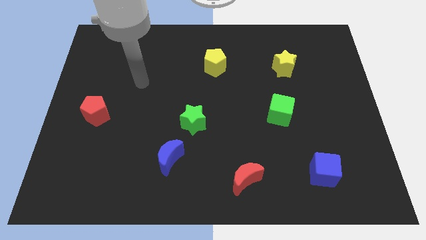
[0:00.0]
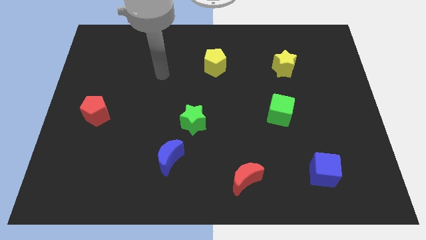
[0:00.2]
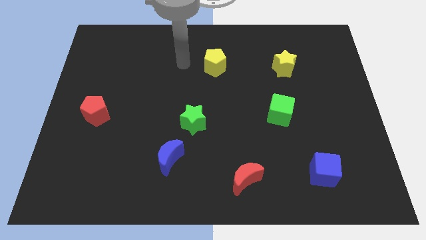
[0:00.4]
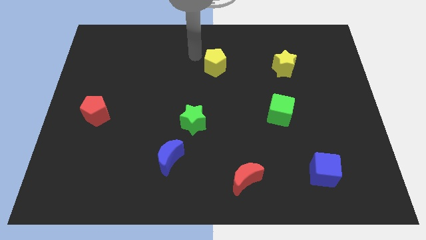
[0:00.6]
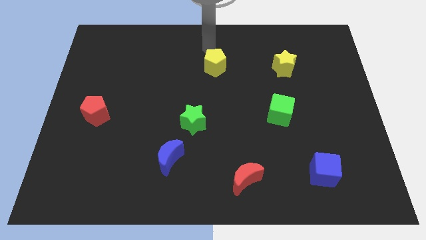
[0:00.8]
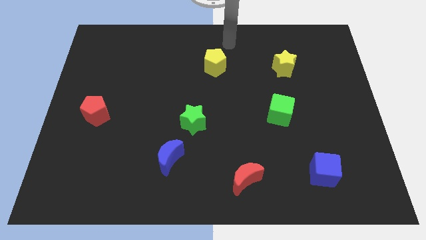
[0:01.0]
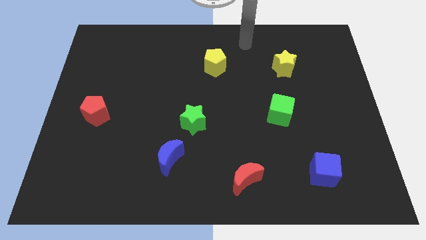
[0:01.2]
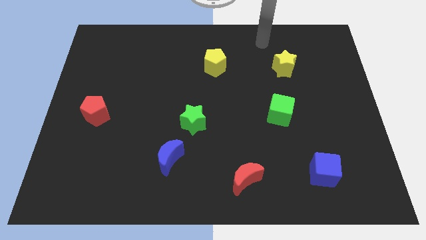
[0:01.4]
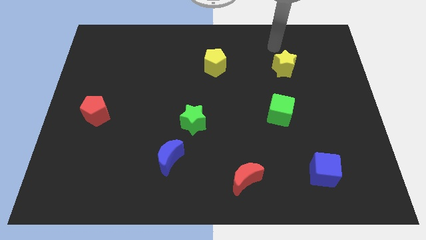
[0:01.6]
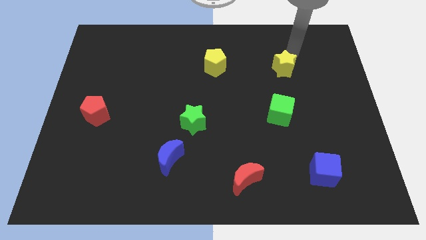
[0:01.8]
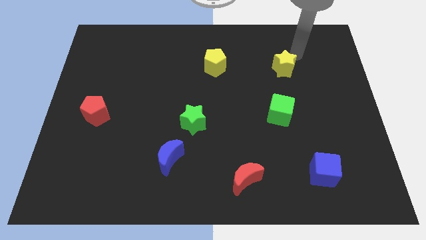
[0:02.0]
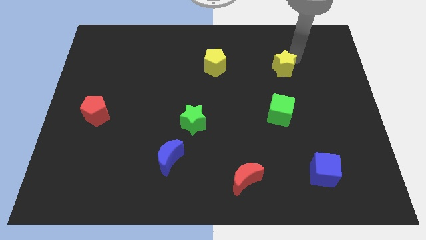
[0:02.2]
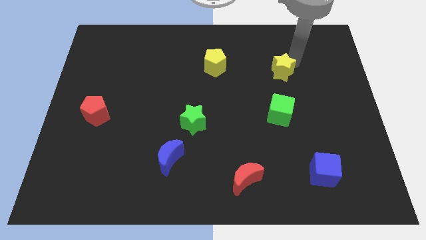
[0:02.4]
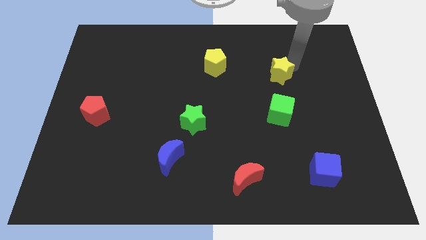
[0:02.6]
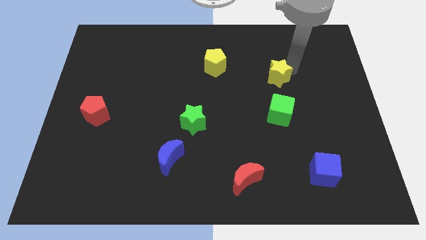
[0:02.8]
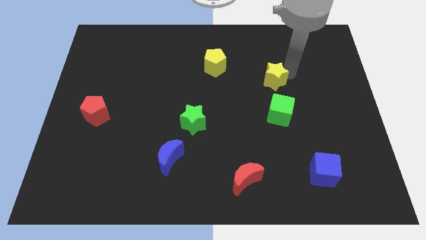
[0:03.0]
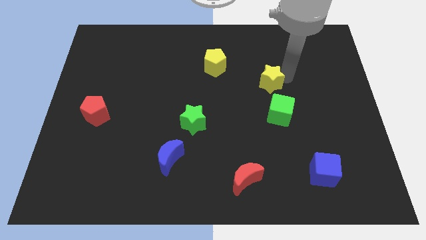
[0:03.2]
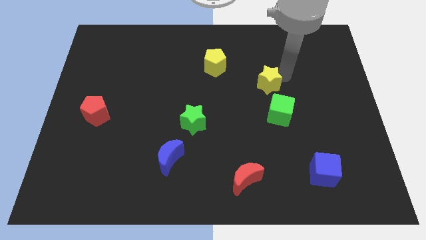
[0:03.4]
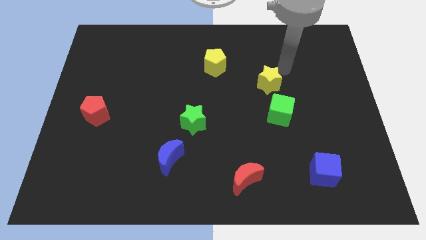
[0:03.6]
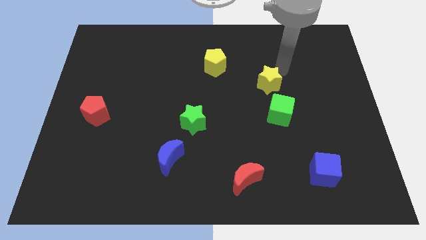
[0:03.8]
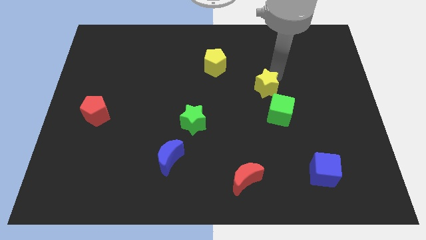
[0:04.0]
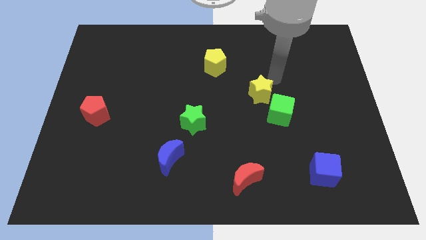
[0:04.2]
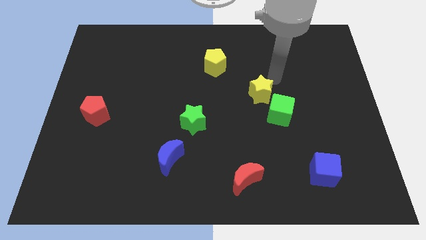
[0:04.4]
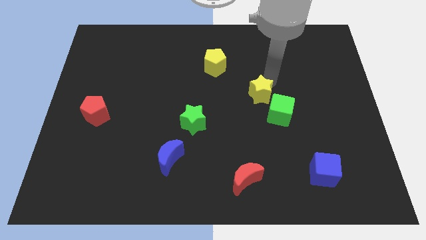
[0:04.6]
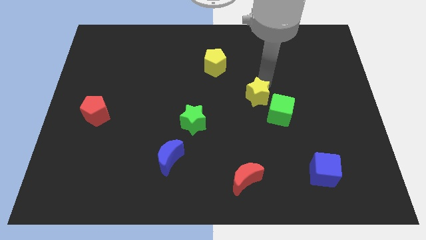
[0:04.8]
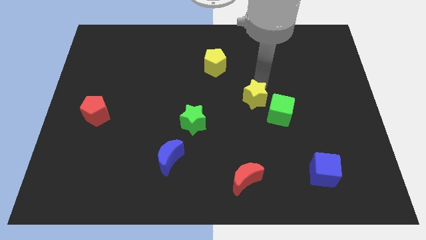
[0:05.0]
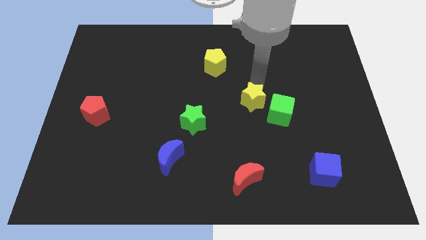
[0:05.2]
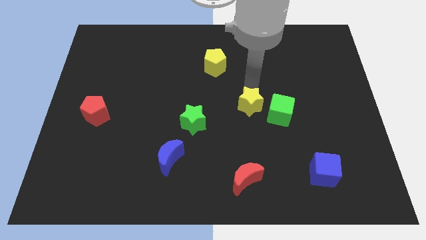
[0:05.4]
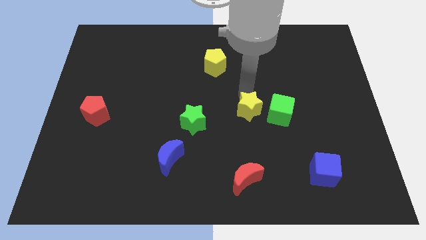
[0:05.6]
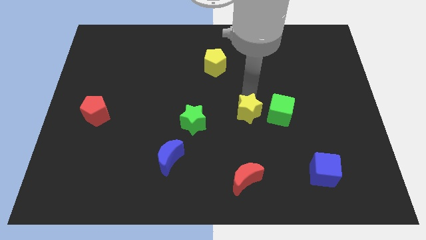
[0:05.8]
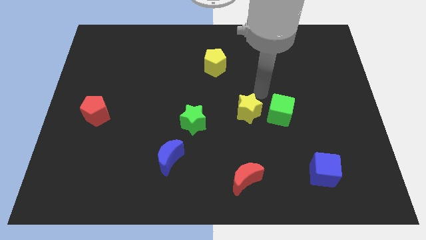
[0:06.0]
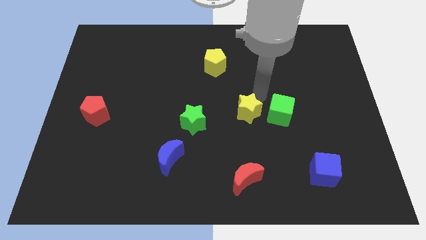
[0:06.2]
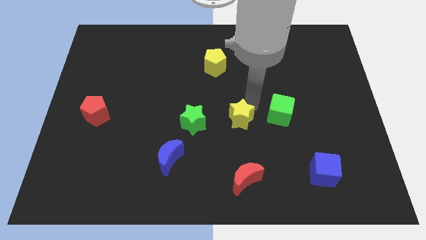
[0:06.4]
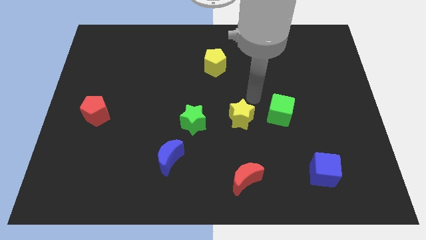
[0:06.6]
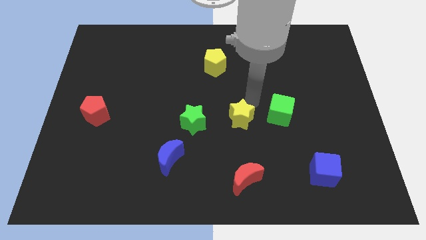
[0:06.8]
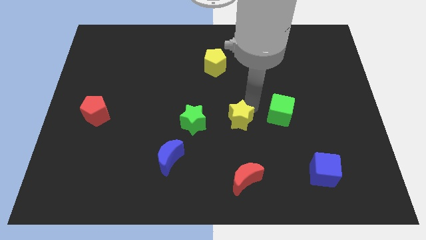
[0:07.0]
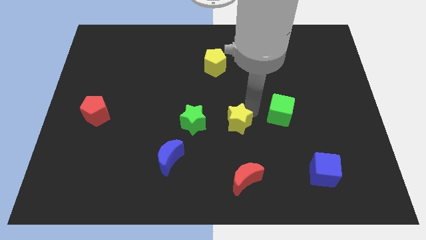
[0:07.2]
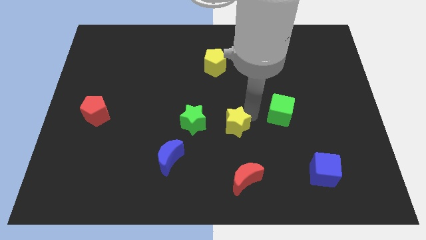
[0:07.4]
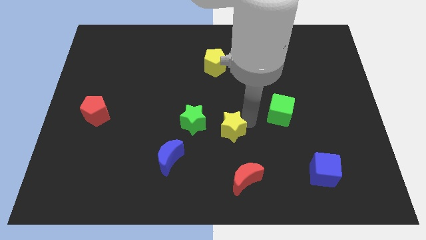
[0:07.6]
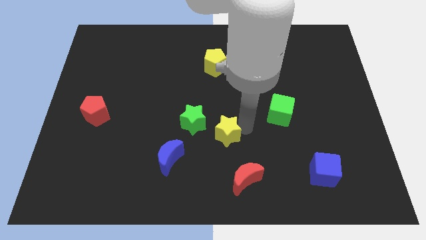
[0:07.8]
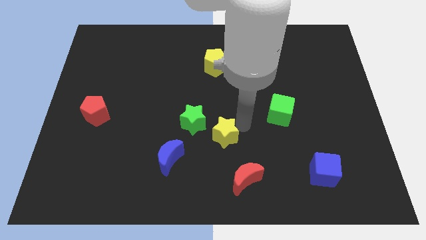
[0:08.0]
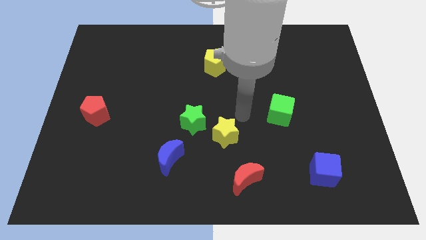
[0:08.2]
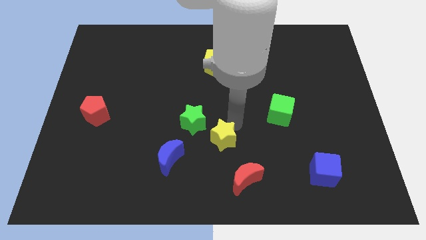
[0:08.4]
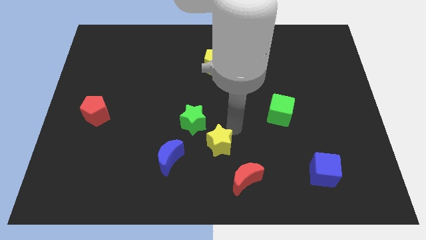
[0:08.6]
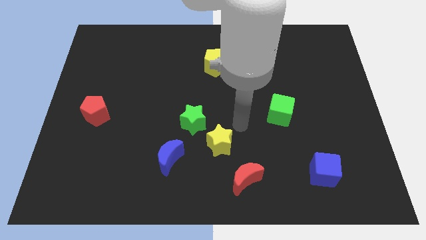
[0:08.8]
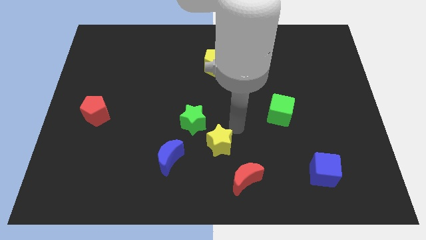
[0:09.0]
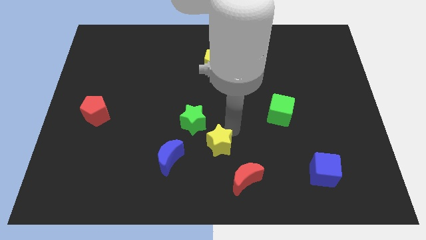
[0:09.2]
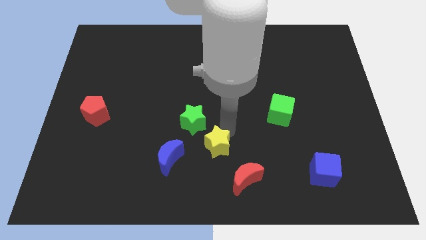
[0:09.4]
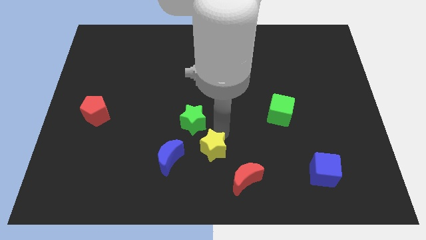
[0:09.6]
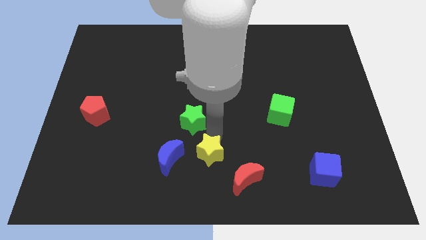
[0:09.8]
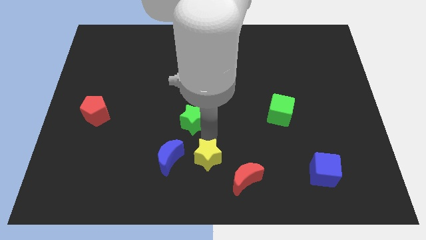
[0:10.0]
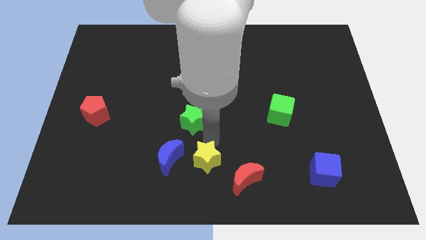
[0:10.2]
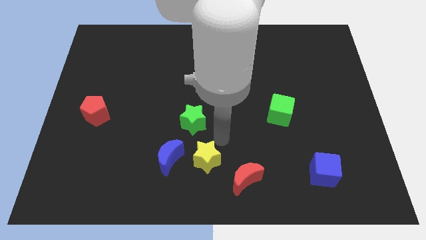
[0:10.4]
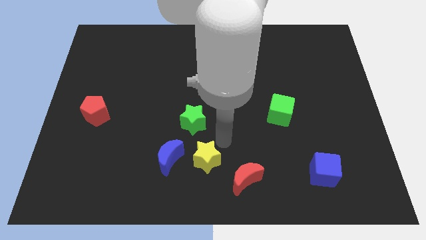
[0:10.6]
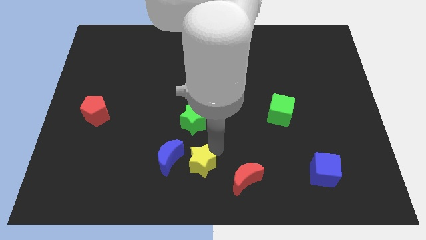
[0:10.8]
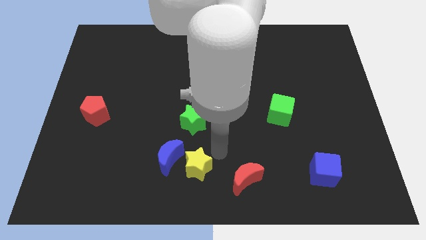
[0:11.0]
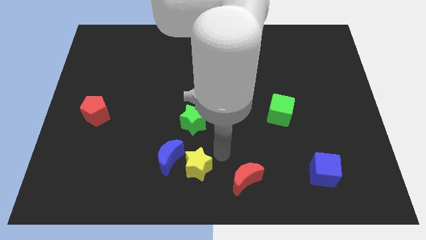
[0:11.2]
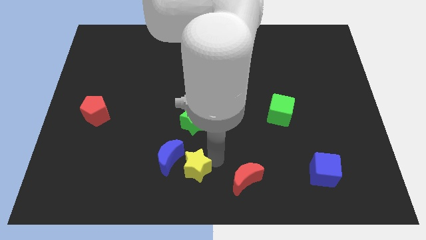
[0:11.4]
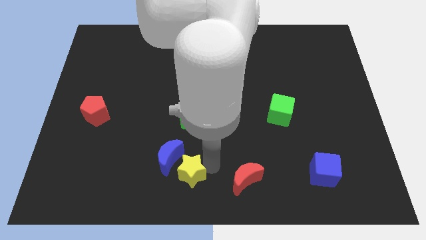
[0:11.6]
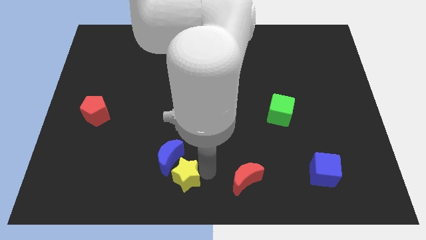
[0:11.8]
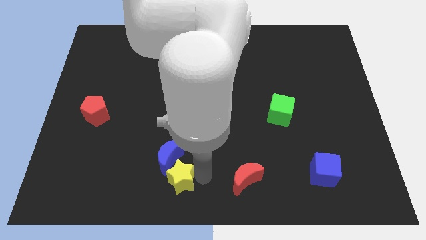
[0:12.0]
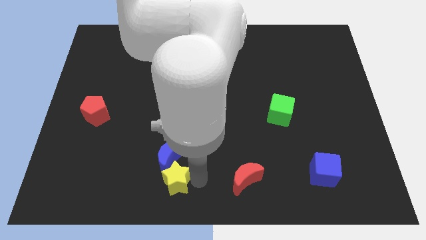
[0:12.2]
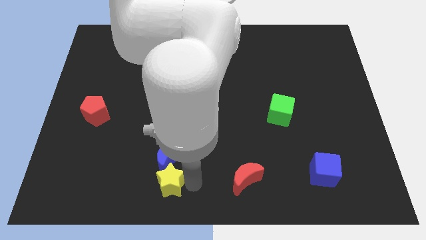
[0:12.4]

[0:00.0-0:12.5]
slide the yellow star diagonally down and to the left of the blue moon

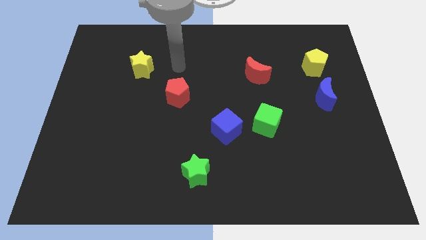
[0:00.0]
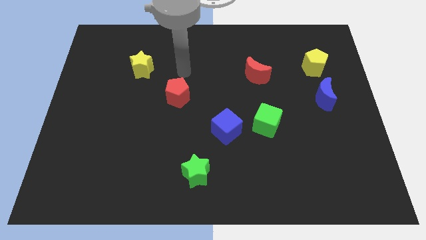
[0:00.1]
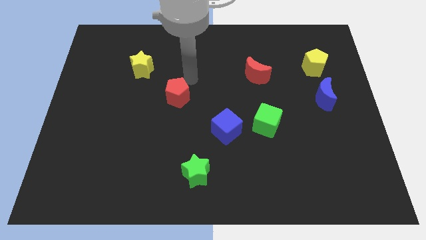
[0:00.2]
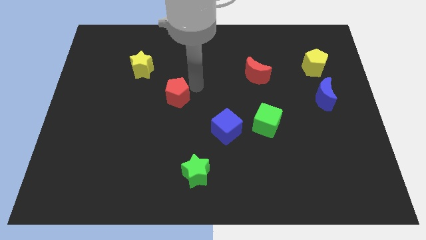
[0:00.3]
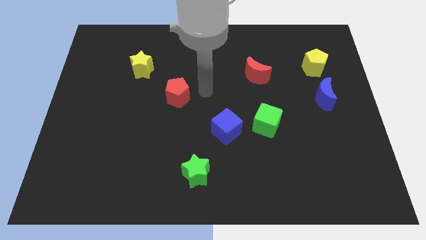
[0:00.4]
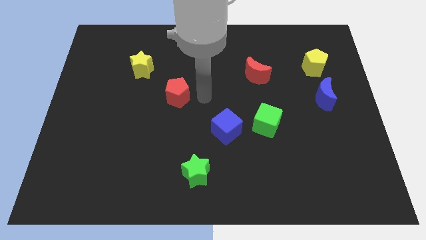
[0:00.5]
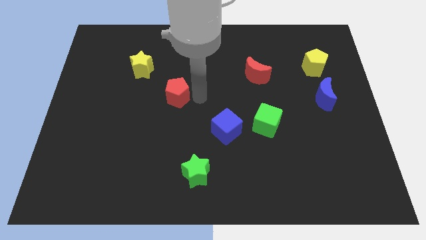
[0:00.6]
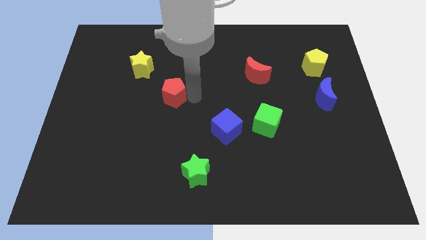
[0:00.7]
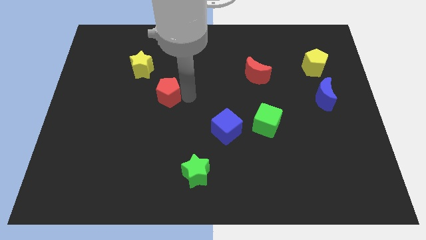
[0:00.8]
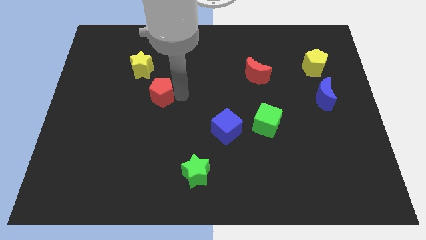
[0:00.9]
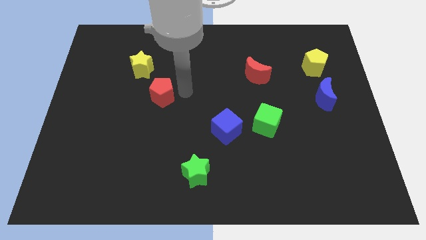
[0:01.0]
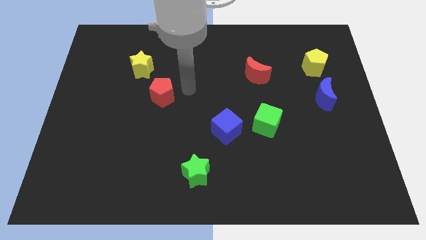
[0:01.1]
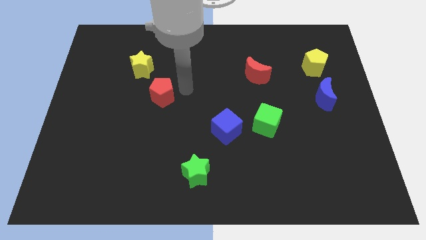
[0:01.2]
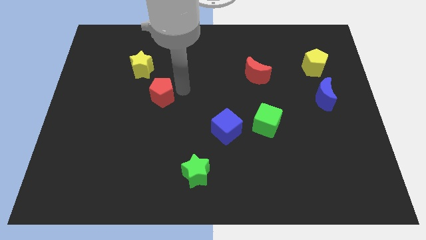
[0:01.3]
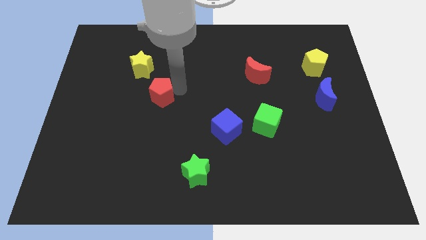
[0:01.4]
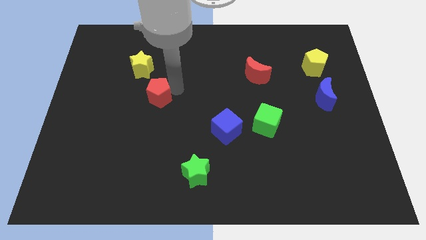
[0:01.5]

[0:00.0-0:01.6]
move the red pentagon below the yellow star
